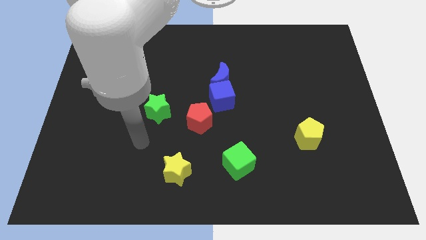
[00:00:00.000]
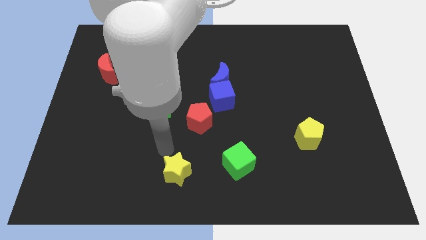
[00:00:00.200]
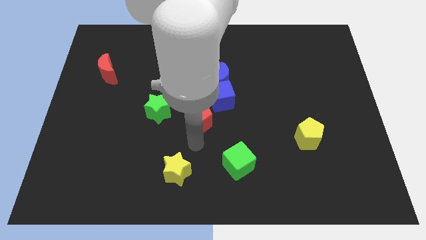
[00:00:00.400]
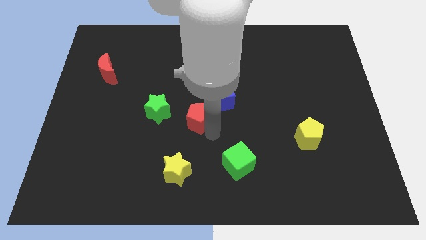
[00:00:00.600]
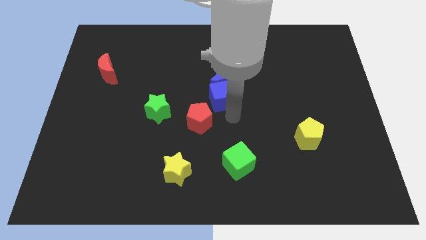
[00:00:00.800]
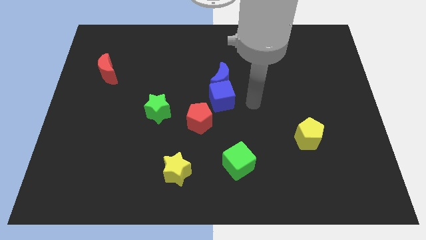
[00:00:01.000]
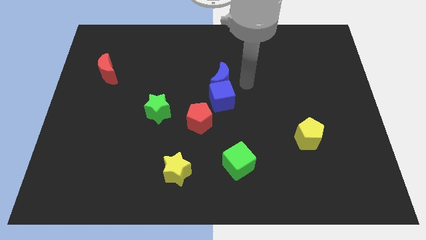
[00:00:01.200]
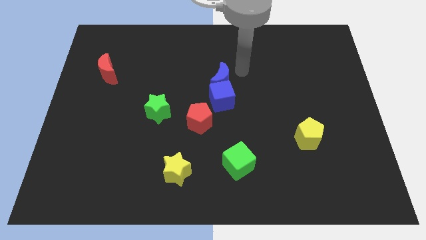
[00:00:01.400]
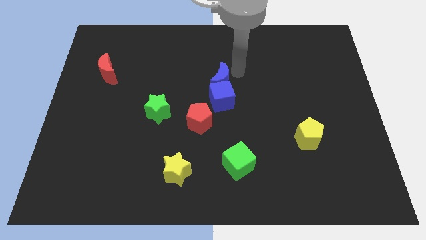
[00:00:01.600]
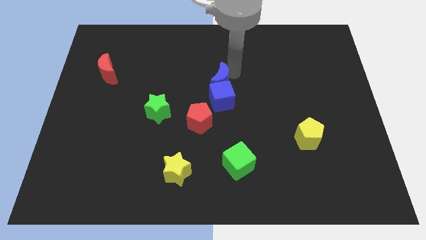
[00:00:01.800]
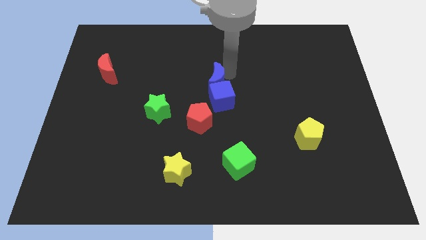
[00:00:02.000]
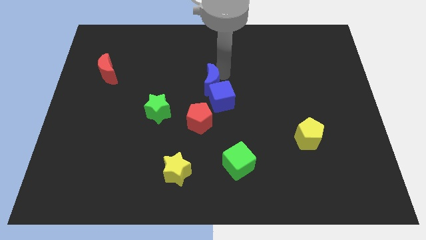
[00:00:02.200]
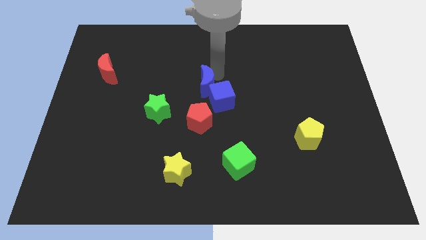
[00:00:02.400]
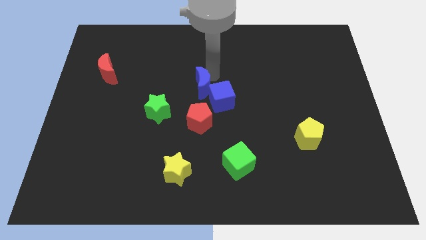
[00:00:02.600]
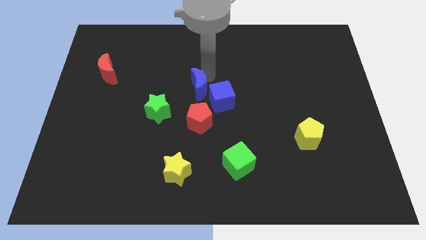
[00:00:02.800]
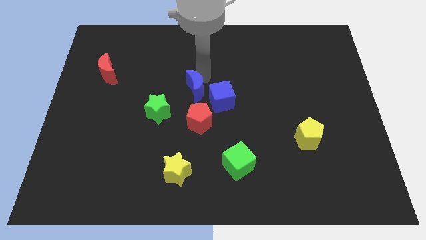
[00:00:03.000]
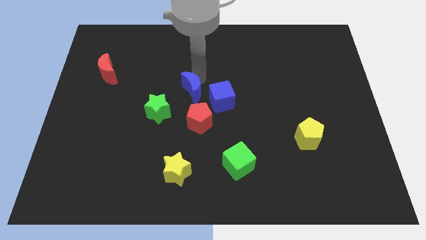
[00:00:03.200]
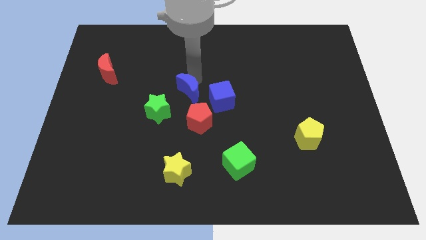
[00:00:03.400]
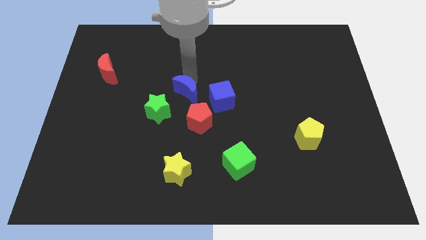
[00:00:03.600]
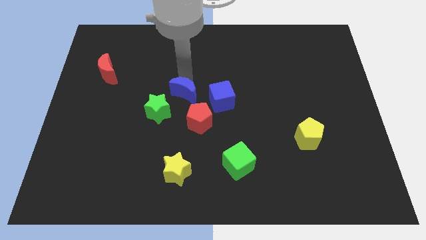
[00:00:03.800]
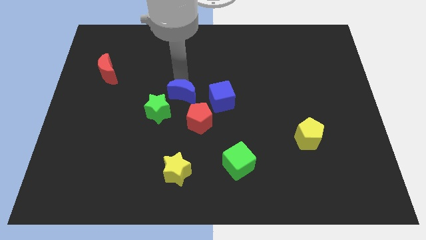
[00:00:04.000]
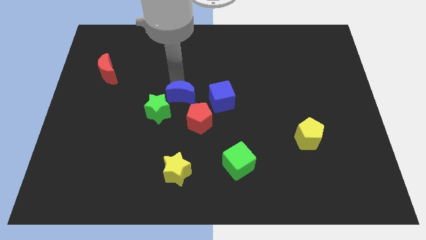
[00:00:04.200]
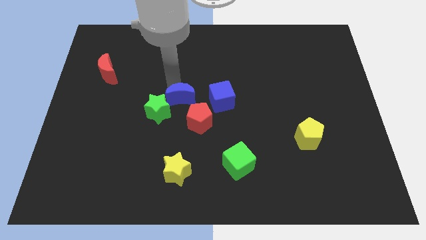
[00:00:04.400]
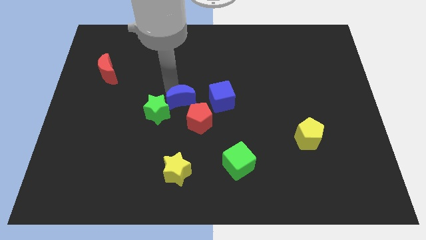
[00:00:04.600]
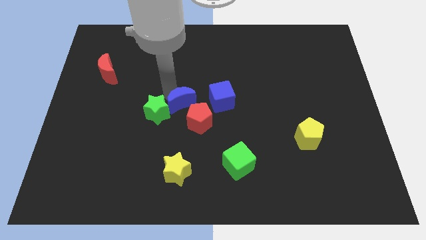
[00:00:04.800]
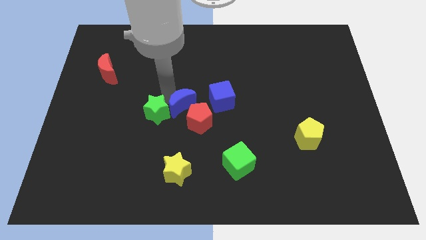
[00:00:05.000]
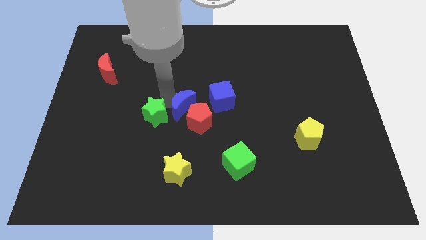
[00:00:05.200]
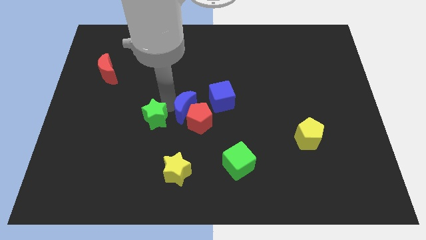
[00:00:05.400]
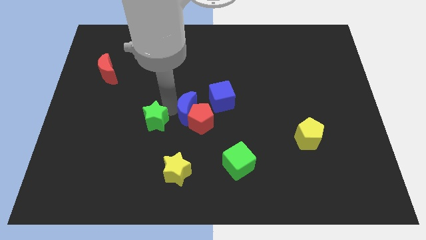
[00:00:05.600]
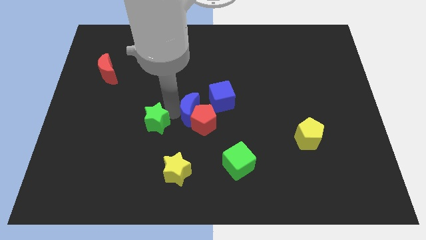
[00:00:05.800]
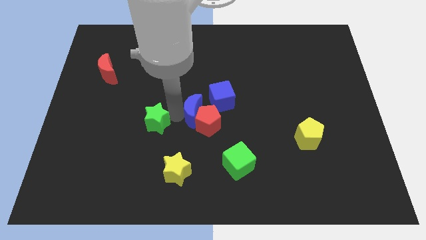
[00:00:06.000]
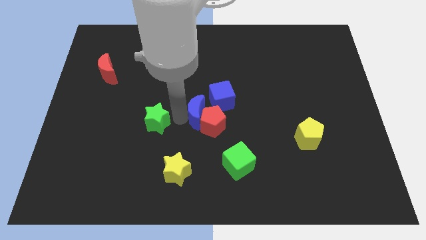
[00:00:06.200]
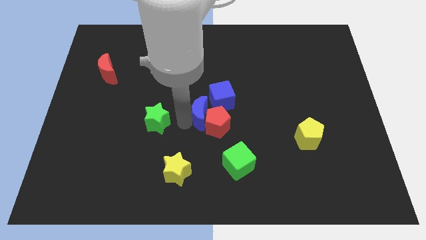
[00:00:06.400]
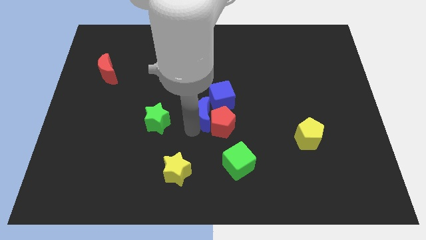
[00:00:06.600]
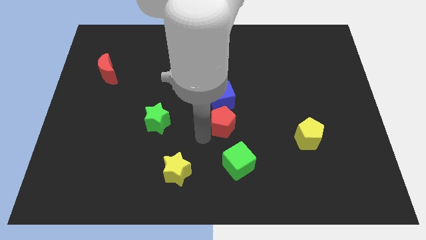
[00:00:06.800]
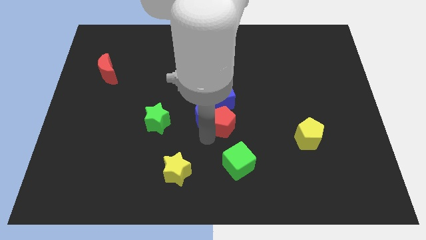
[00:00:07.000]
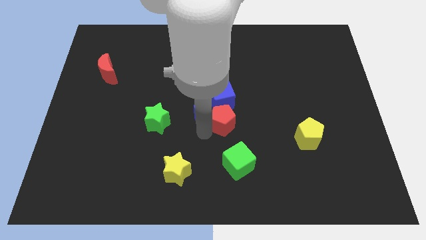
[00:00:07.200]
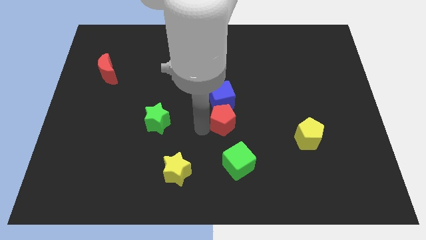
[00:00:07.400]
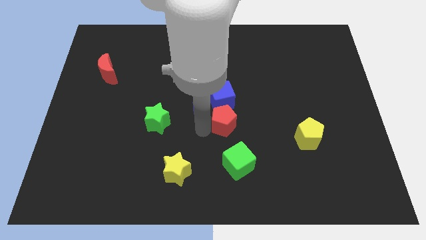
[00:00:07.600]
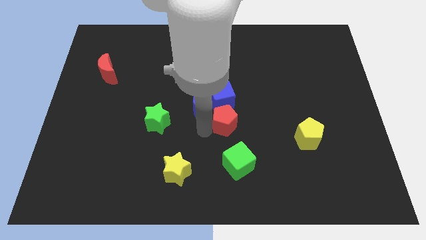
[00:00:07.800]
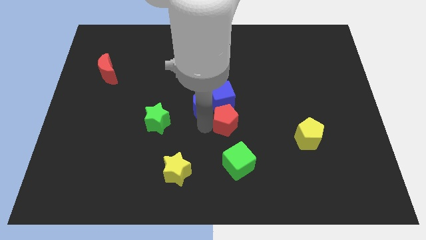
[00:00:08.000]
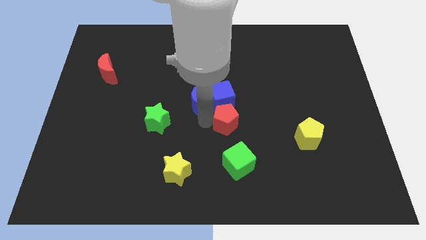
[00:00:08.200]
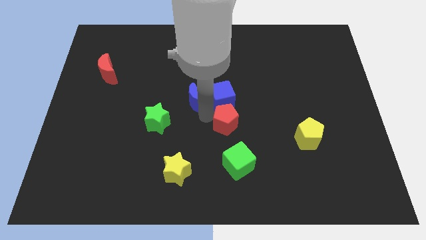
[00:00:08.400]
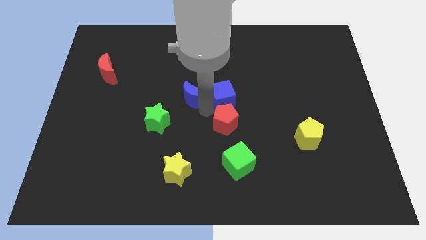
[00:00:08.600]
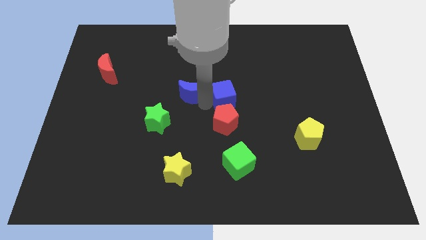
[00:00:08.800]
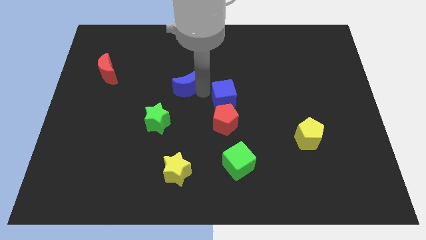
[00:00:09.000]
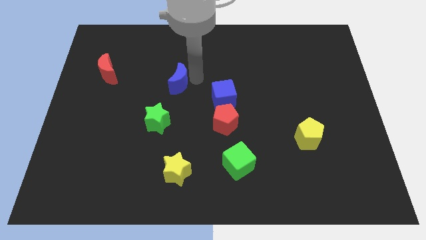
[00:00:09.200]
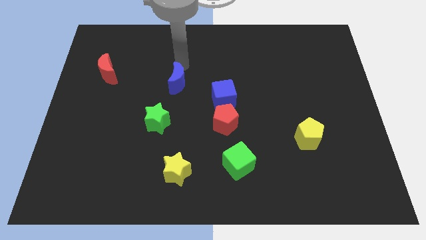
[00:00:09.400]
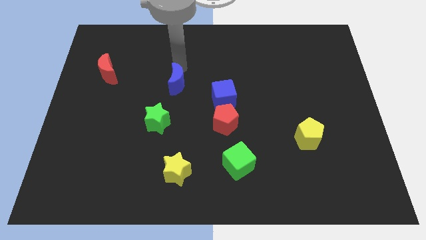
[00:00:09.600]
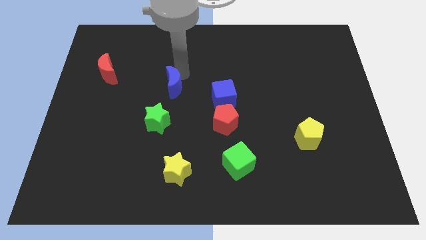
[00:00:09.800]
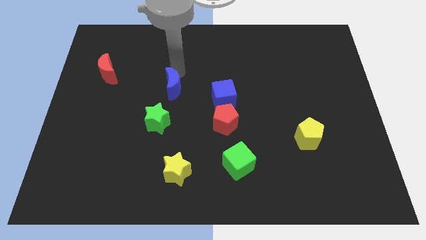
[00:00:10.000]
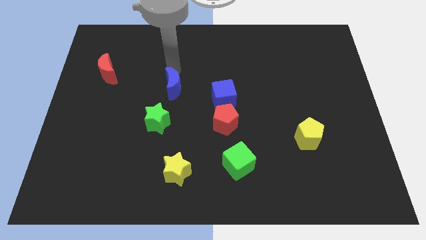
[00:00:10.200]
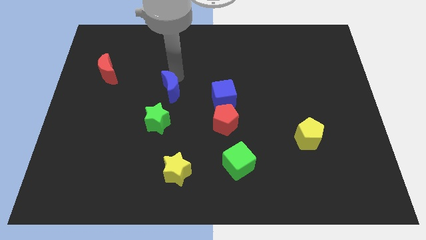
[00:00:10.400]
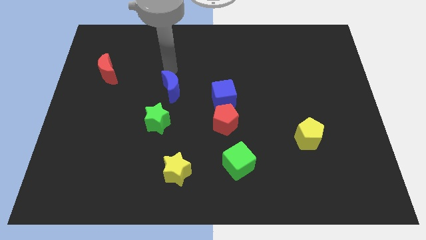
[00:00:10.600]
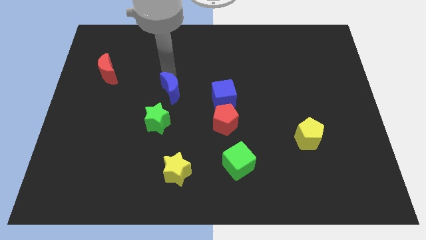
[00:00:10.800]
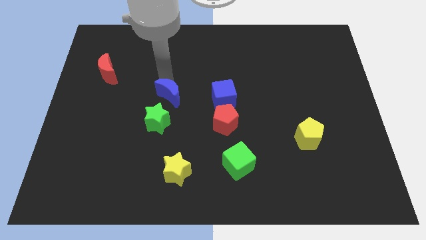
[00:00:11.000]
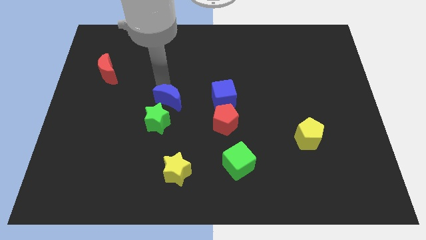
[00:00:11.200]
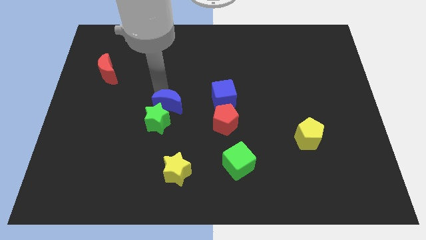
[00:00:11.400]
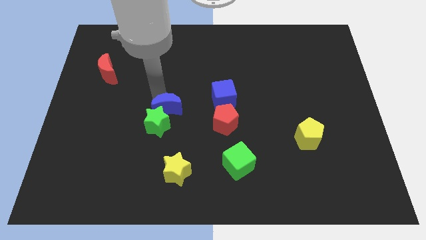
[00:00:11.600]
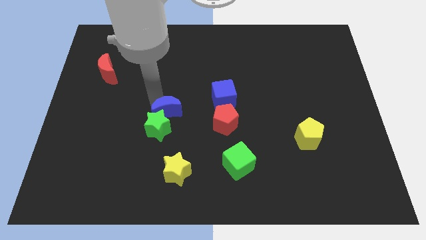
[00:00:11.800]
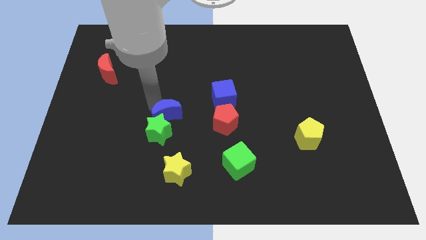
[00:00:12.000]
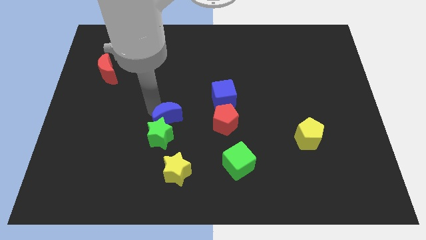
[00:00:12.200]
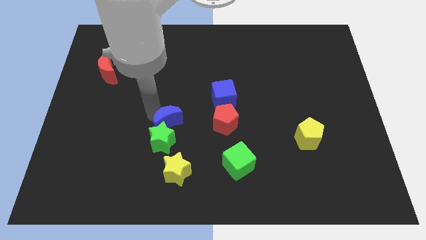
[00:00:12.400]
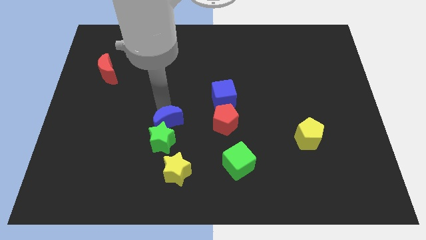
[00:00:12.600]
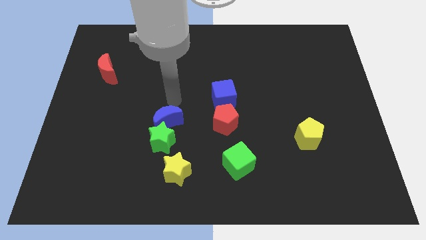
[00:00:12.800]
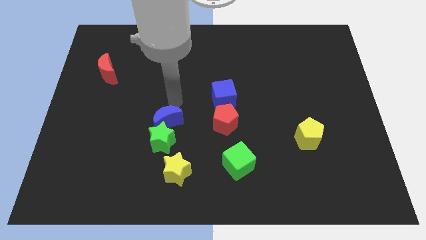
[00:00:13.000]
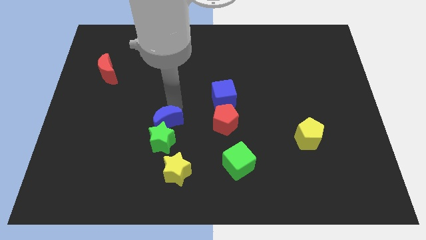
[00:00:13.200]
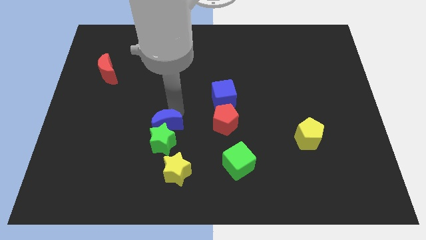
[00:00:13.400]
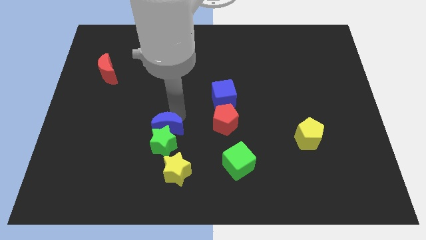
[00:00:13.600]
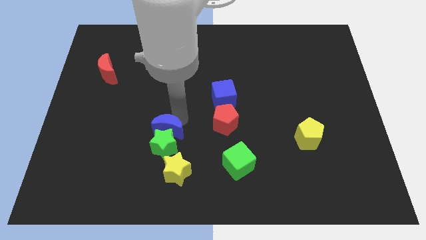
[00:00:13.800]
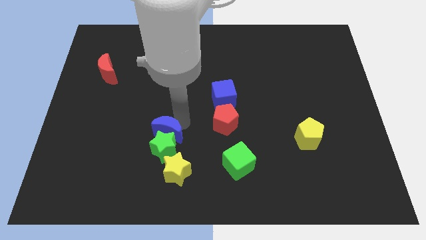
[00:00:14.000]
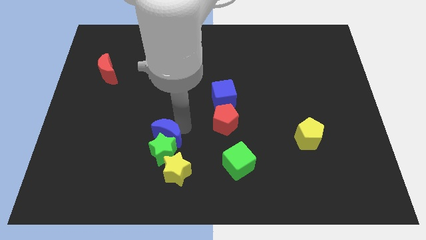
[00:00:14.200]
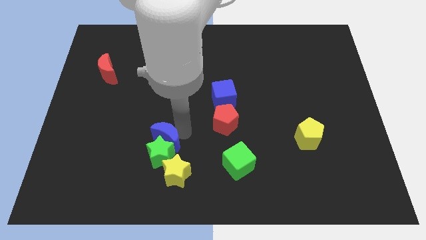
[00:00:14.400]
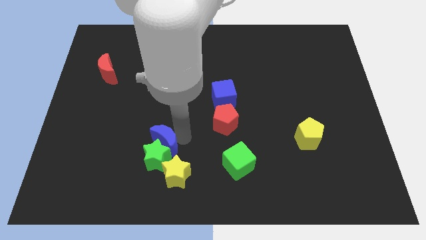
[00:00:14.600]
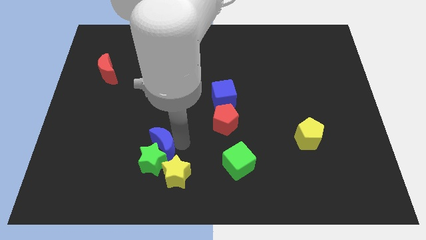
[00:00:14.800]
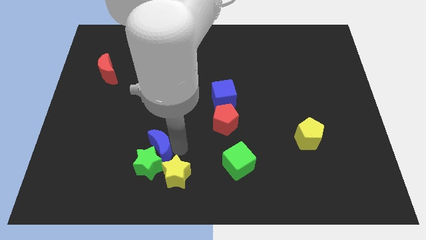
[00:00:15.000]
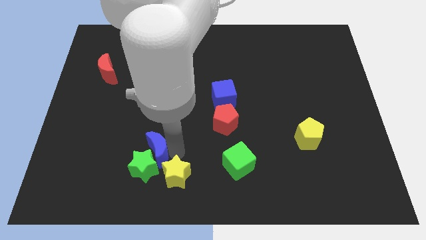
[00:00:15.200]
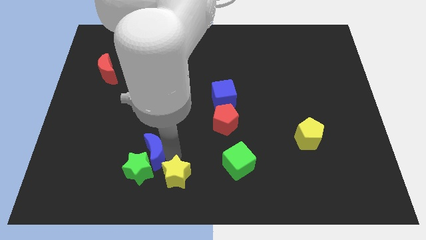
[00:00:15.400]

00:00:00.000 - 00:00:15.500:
move the blue moon to the left side of the yellow star
